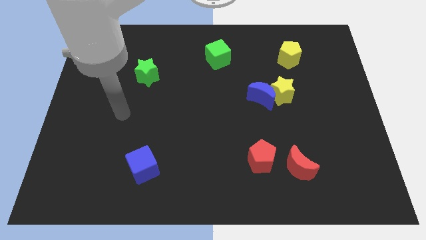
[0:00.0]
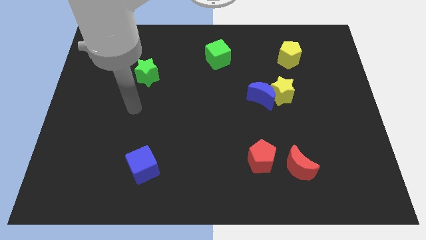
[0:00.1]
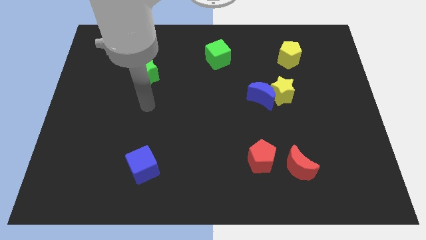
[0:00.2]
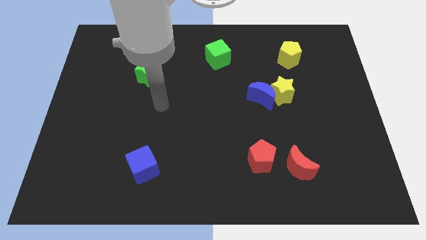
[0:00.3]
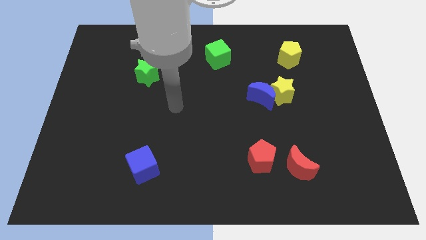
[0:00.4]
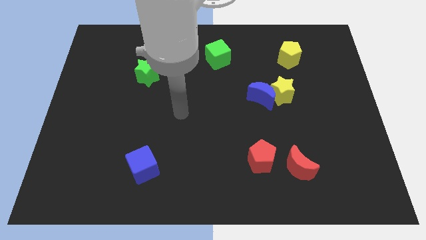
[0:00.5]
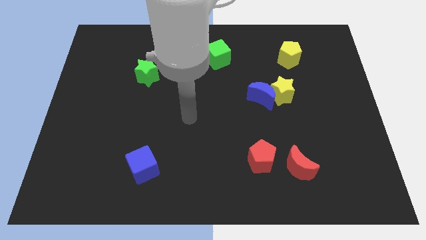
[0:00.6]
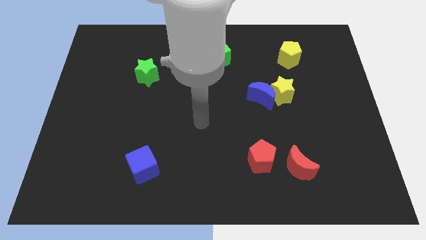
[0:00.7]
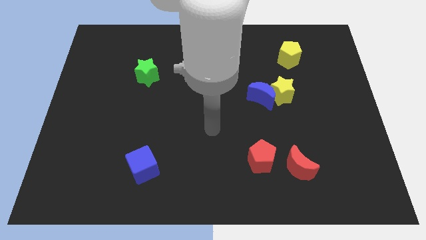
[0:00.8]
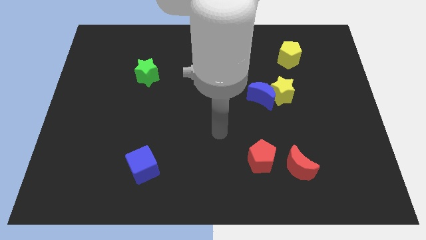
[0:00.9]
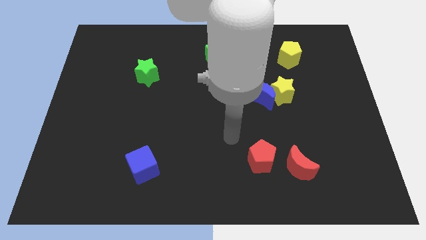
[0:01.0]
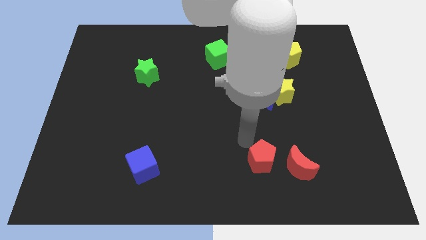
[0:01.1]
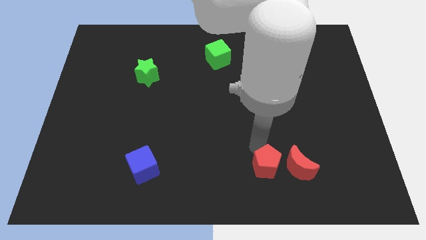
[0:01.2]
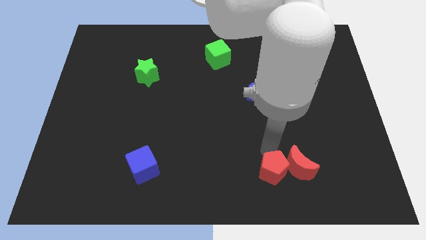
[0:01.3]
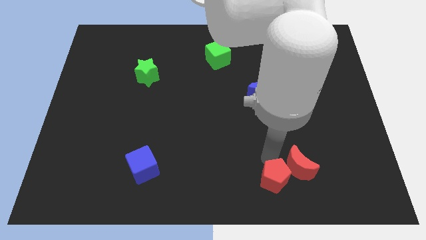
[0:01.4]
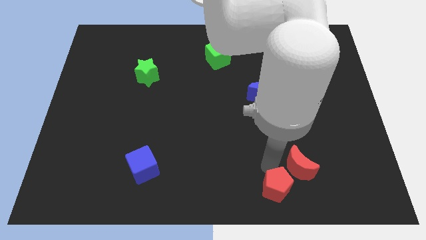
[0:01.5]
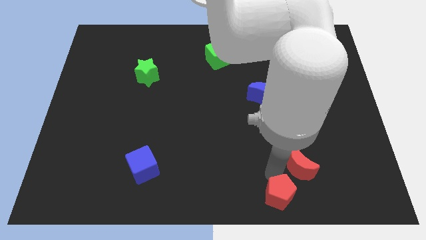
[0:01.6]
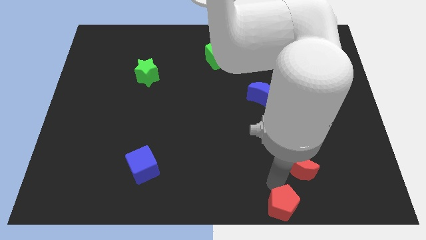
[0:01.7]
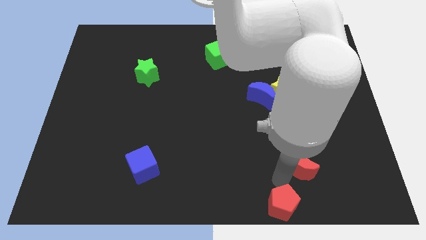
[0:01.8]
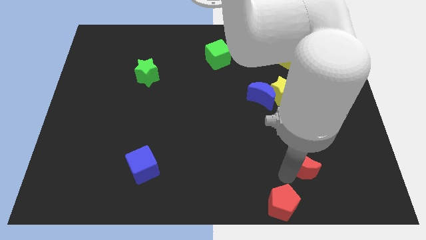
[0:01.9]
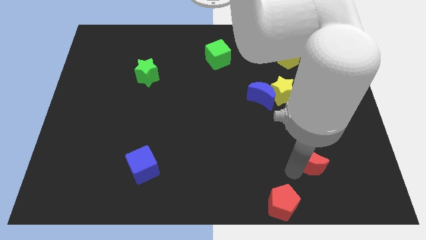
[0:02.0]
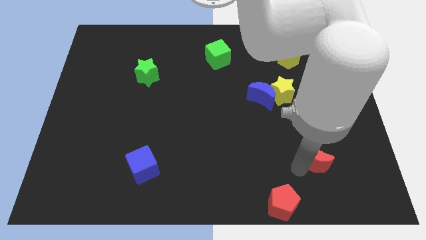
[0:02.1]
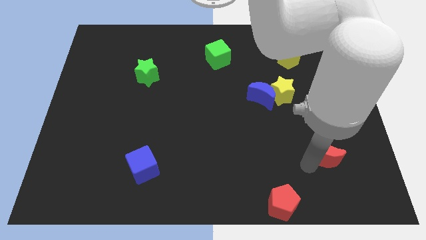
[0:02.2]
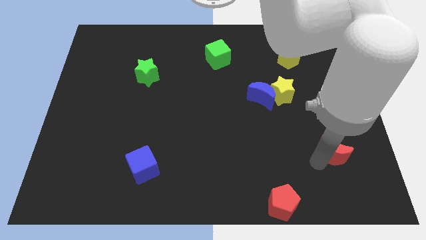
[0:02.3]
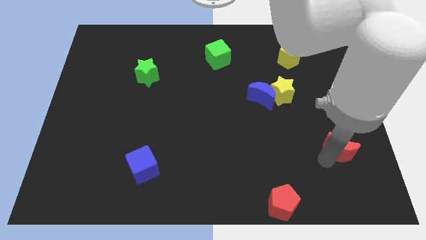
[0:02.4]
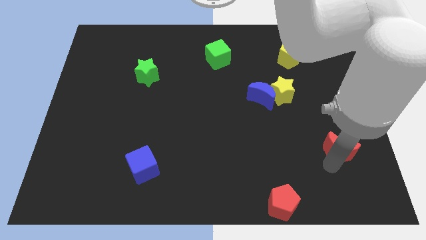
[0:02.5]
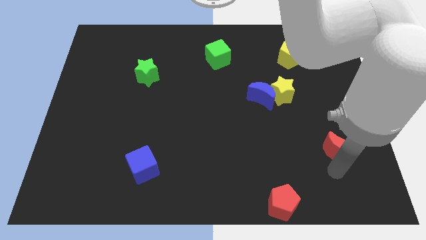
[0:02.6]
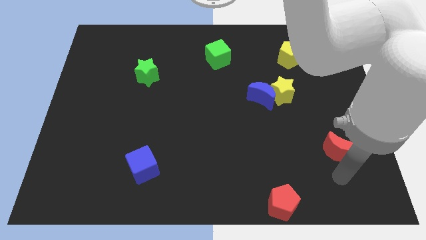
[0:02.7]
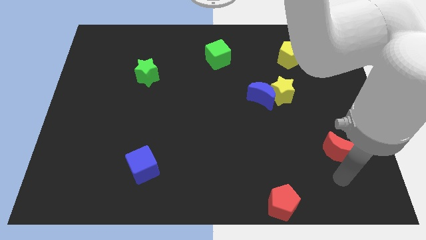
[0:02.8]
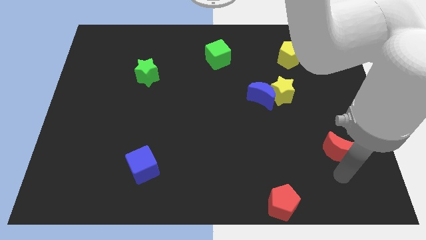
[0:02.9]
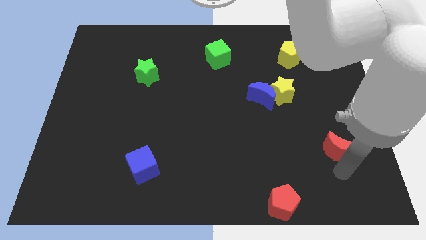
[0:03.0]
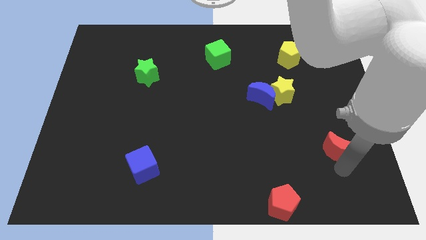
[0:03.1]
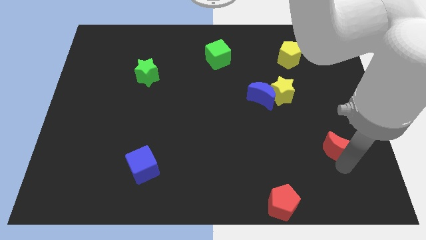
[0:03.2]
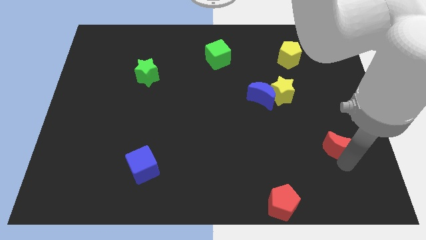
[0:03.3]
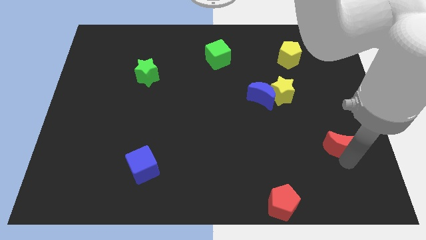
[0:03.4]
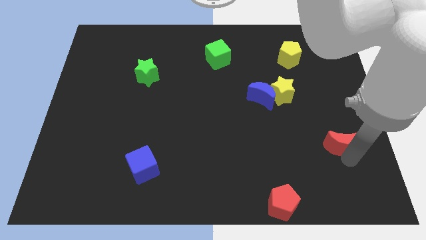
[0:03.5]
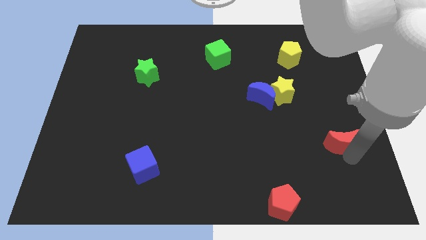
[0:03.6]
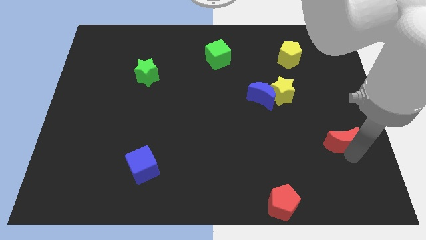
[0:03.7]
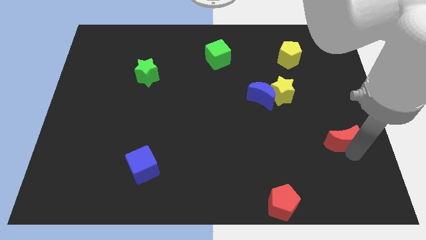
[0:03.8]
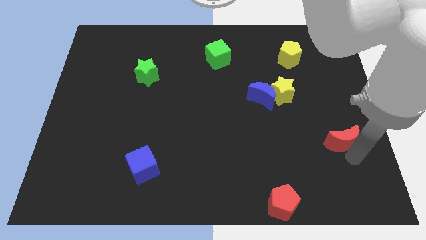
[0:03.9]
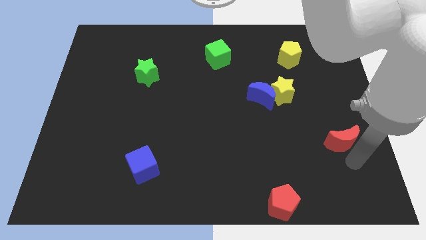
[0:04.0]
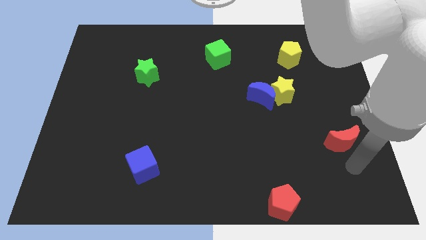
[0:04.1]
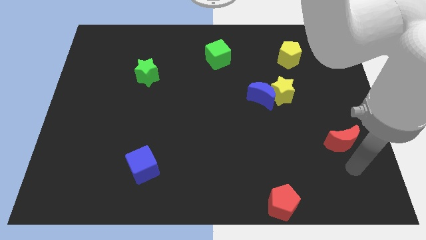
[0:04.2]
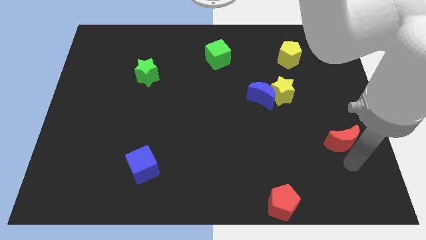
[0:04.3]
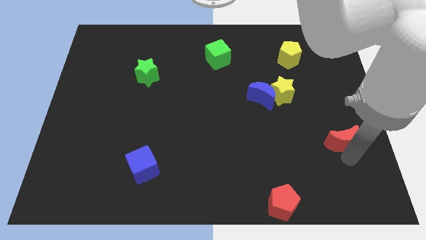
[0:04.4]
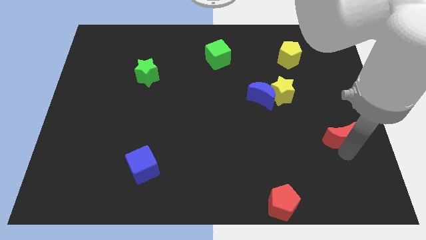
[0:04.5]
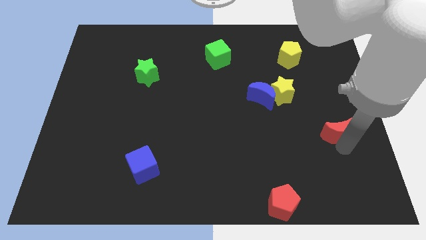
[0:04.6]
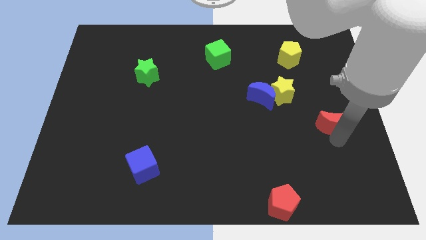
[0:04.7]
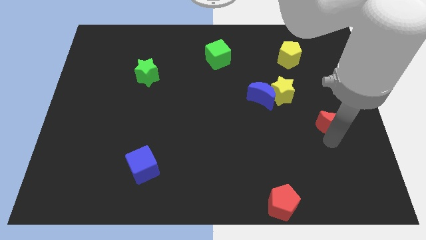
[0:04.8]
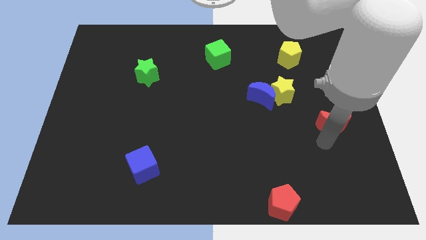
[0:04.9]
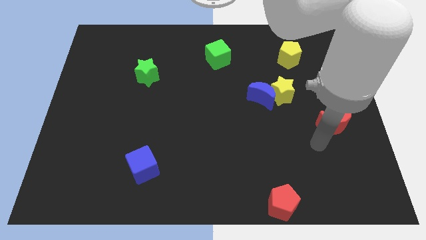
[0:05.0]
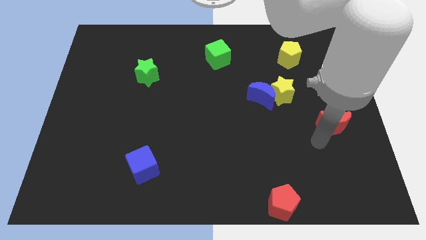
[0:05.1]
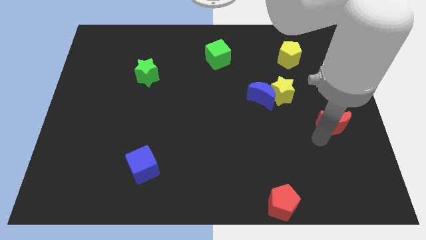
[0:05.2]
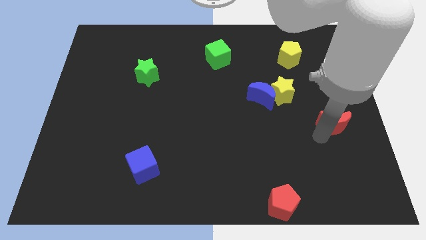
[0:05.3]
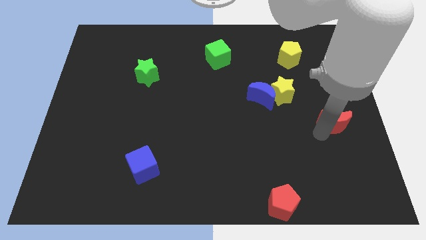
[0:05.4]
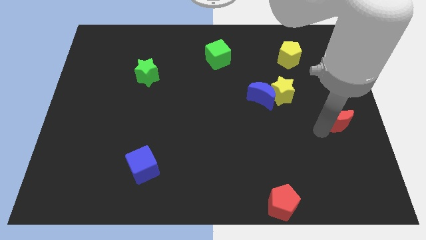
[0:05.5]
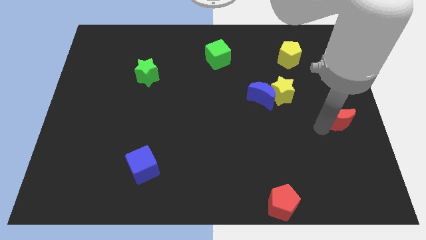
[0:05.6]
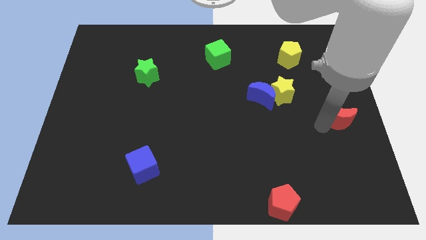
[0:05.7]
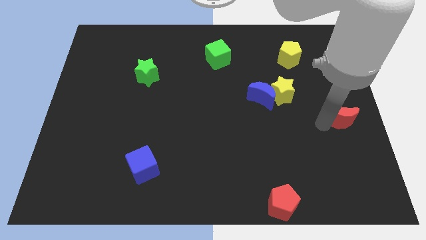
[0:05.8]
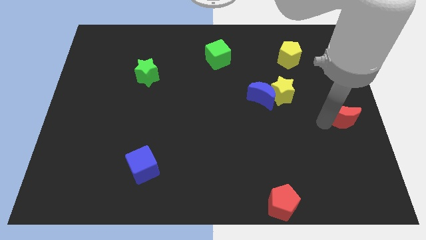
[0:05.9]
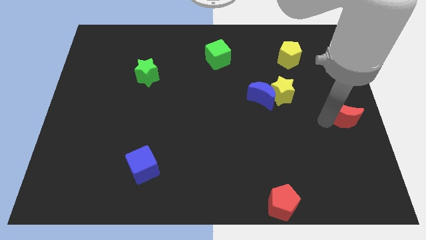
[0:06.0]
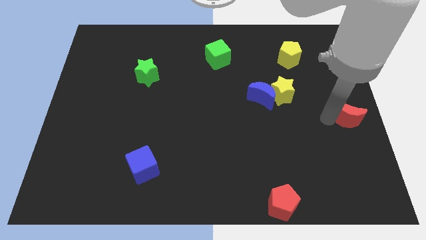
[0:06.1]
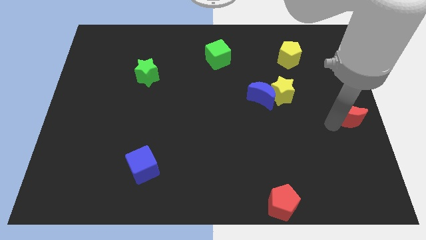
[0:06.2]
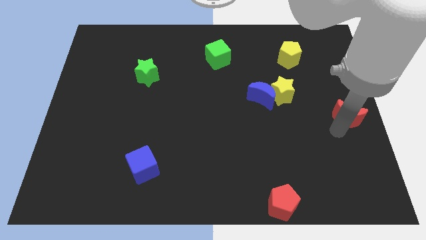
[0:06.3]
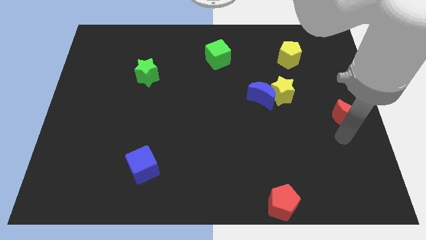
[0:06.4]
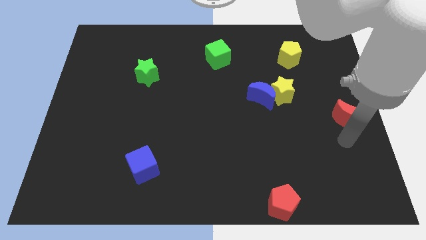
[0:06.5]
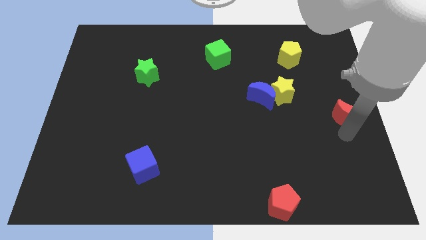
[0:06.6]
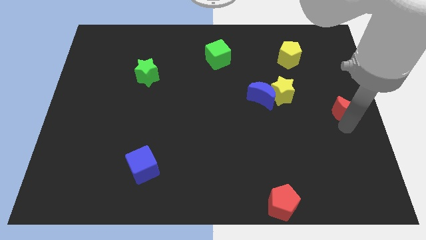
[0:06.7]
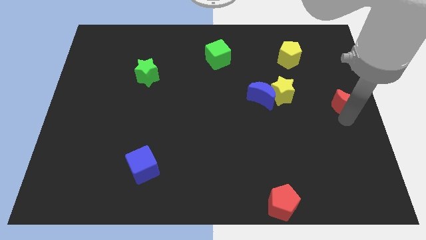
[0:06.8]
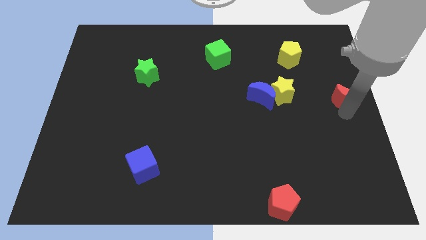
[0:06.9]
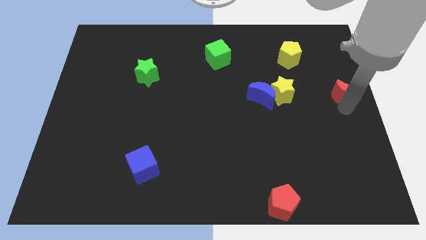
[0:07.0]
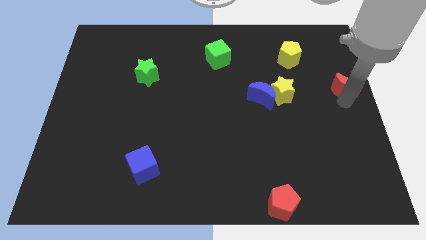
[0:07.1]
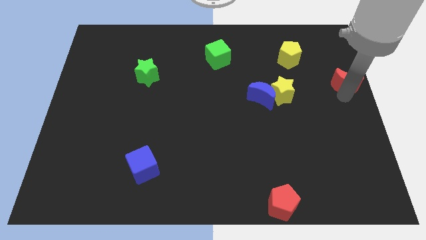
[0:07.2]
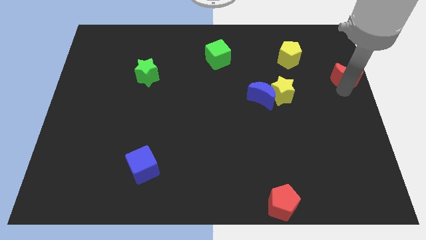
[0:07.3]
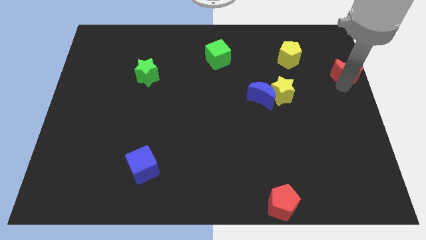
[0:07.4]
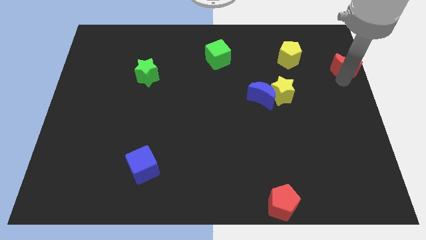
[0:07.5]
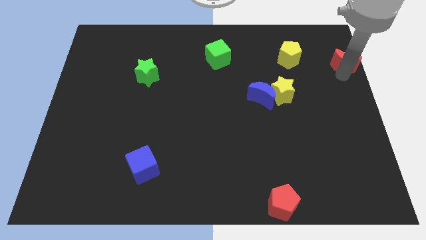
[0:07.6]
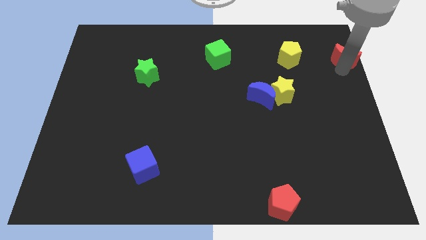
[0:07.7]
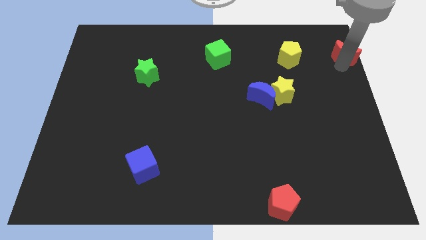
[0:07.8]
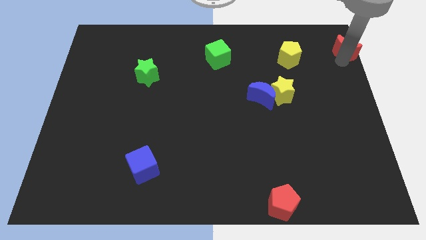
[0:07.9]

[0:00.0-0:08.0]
push the red moon to the top right of the board
